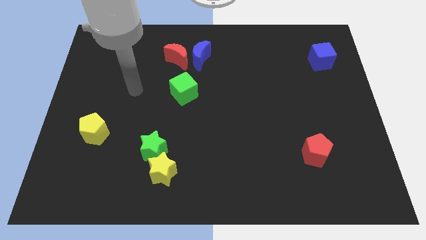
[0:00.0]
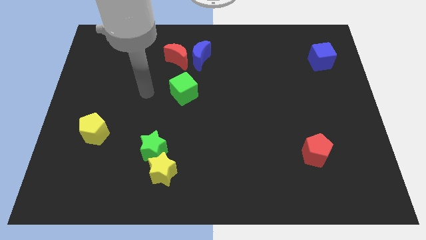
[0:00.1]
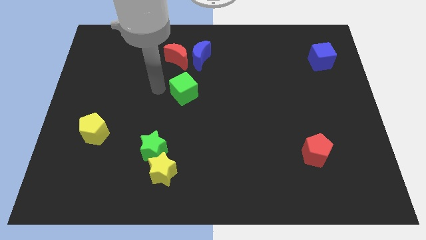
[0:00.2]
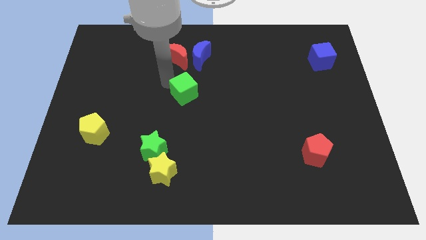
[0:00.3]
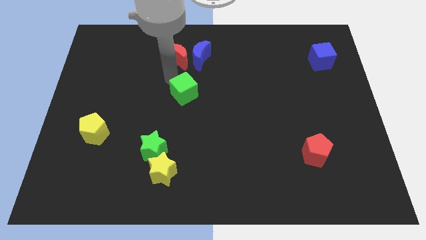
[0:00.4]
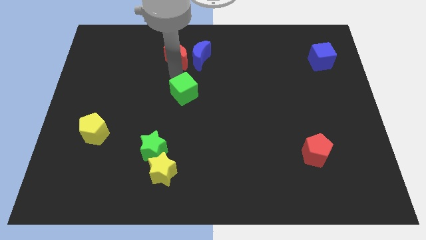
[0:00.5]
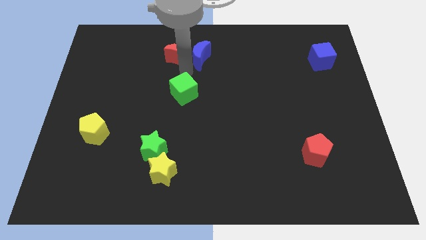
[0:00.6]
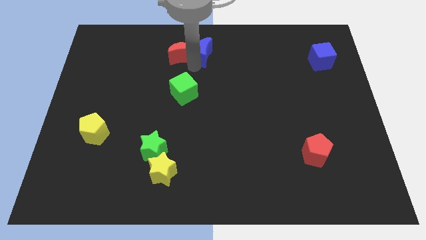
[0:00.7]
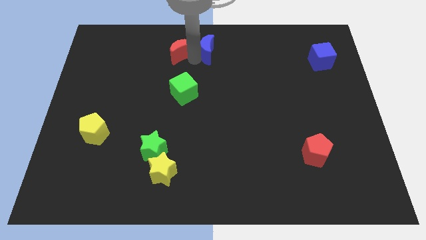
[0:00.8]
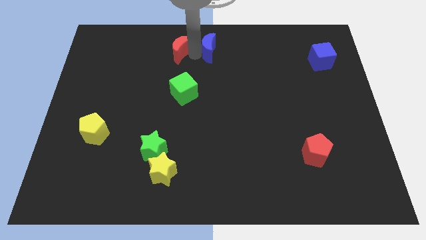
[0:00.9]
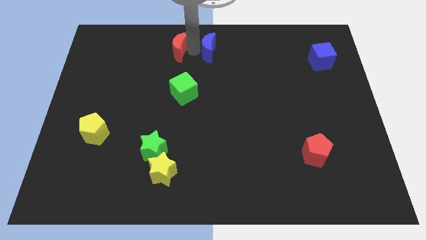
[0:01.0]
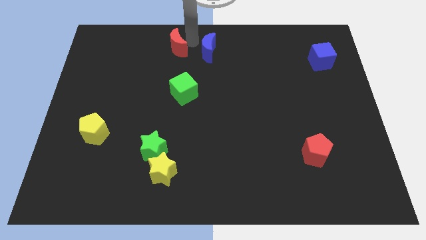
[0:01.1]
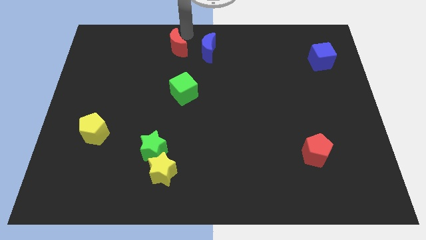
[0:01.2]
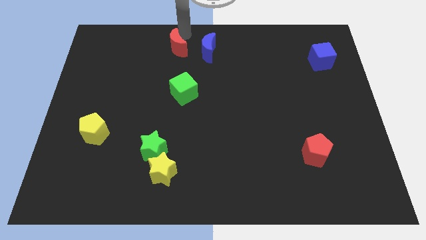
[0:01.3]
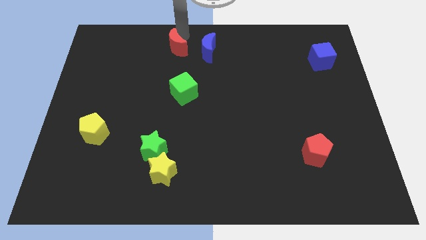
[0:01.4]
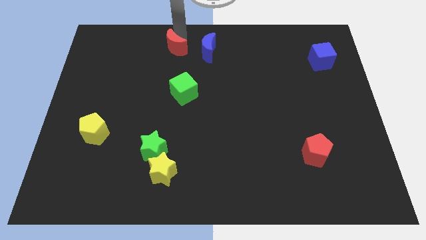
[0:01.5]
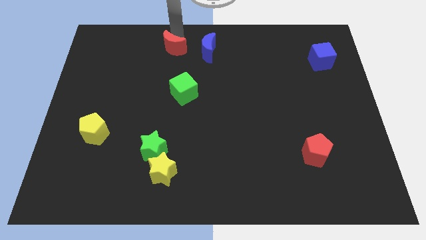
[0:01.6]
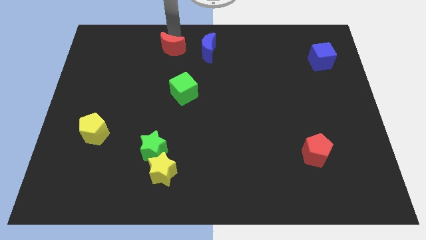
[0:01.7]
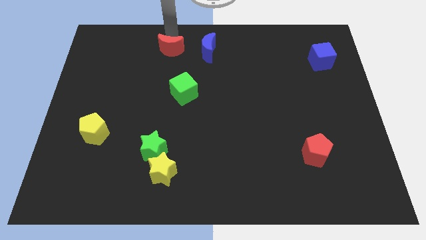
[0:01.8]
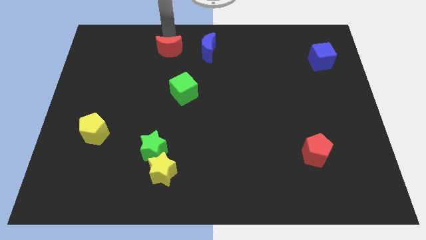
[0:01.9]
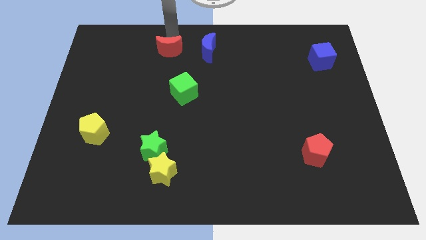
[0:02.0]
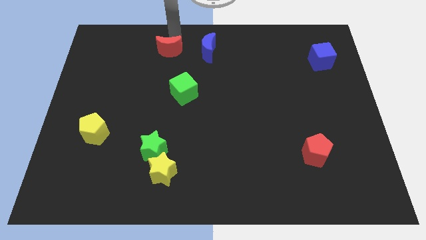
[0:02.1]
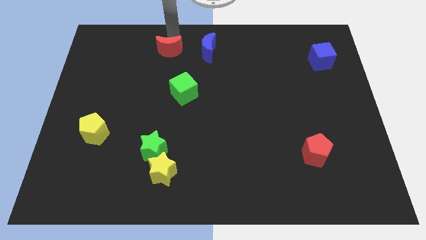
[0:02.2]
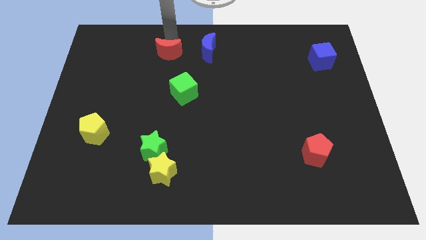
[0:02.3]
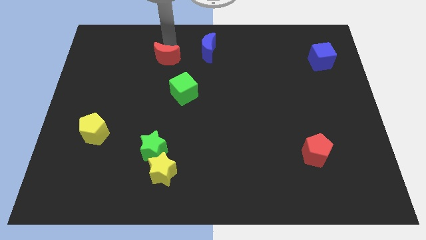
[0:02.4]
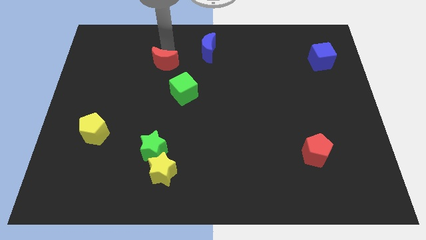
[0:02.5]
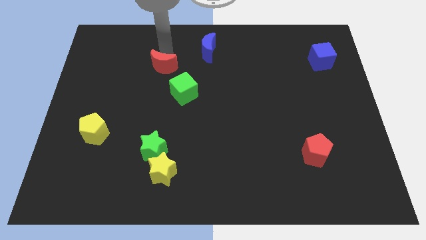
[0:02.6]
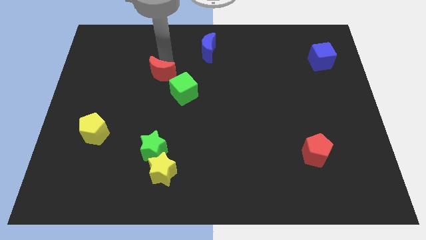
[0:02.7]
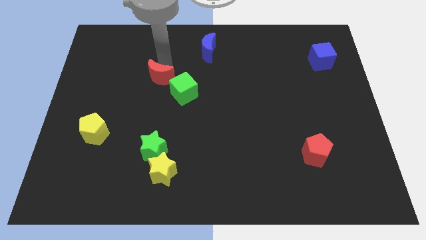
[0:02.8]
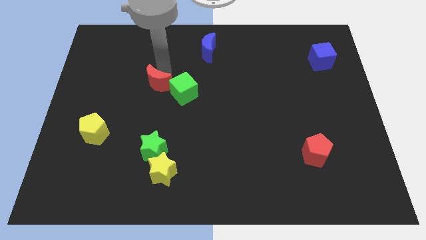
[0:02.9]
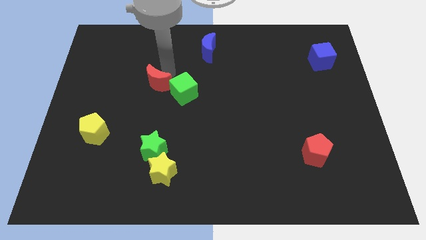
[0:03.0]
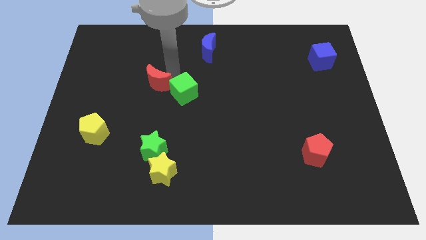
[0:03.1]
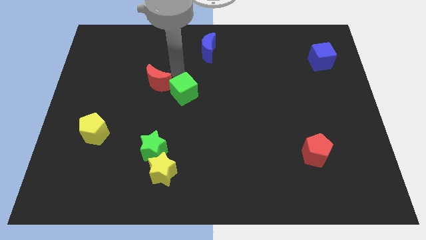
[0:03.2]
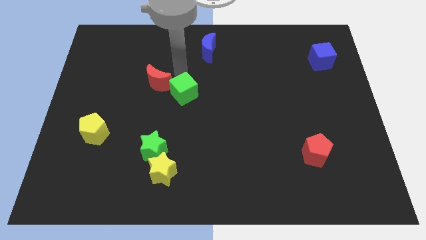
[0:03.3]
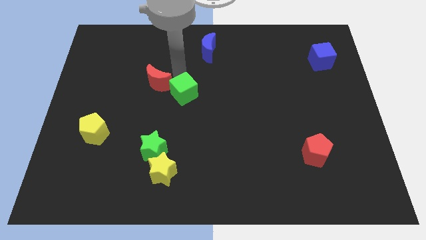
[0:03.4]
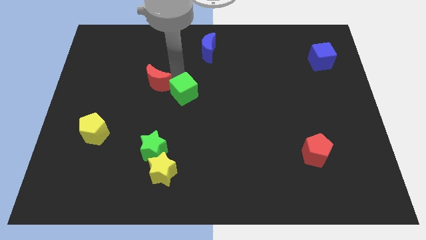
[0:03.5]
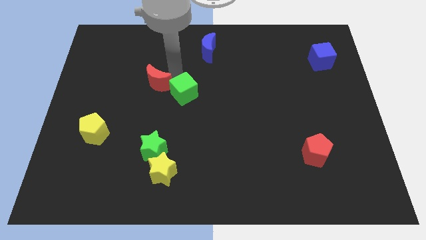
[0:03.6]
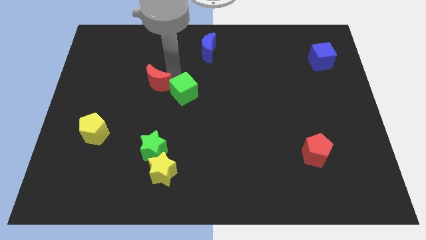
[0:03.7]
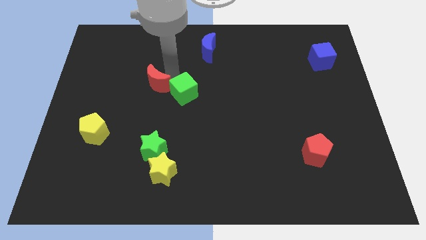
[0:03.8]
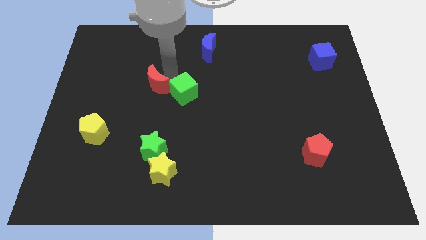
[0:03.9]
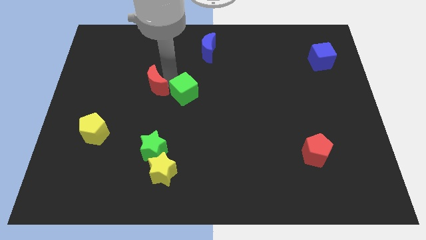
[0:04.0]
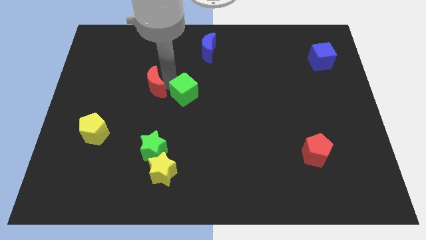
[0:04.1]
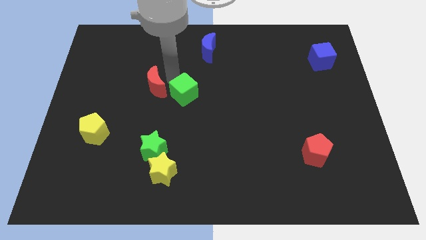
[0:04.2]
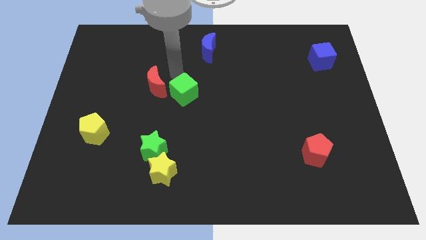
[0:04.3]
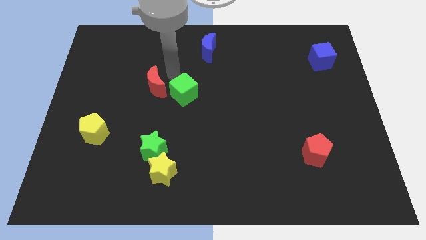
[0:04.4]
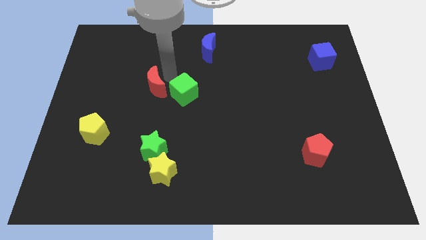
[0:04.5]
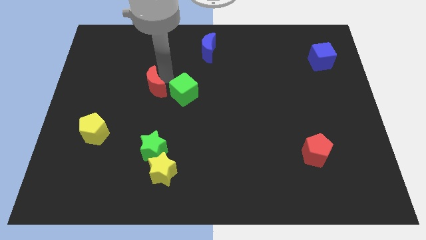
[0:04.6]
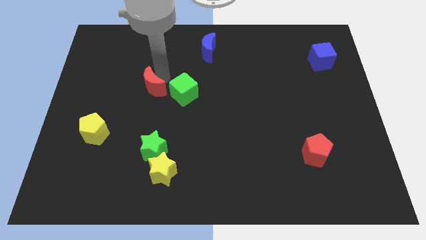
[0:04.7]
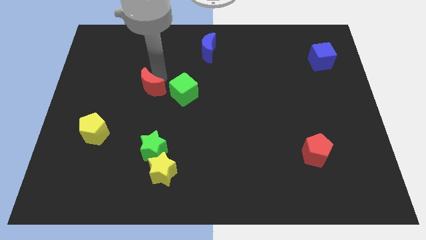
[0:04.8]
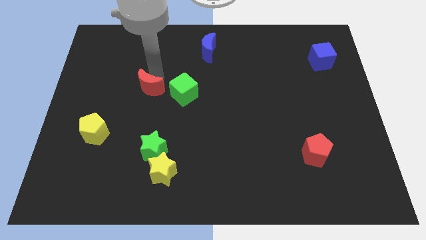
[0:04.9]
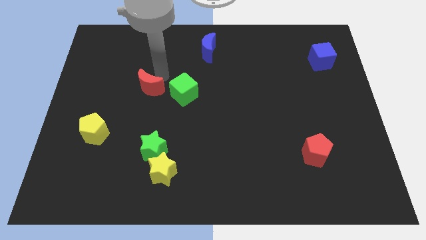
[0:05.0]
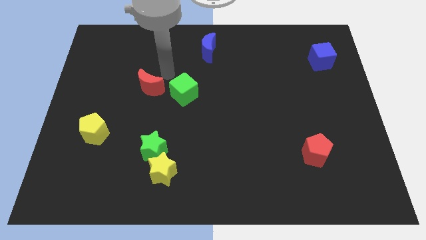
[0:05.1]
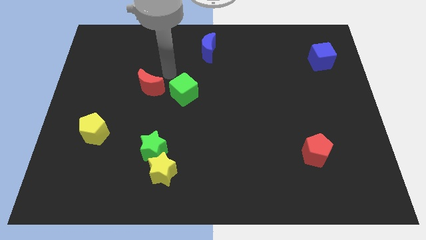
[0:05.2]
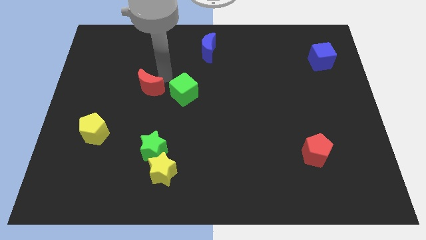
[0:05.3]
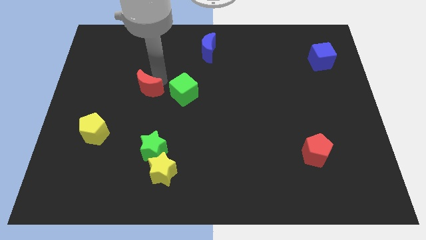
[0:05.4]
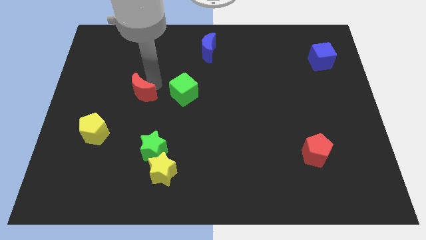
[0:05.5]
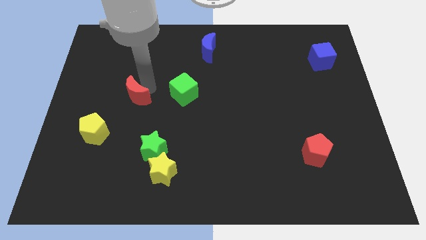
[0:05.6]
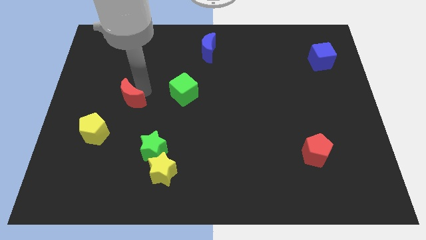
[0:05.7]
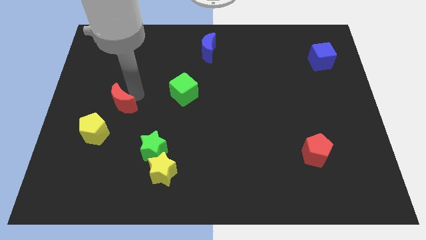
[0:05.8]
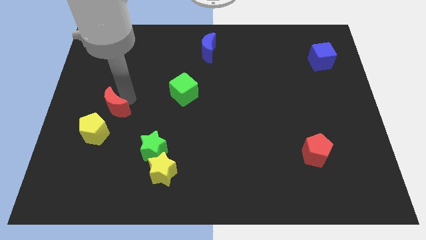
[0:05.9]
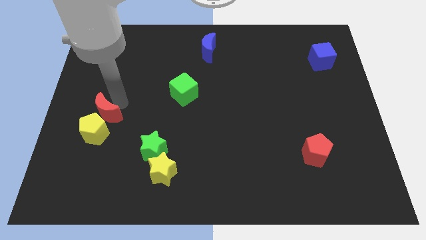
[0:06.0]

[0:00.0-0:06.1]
put the red moon to the yellow pentagon

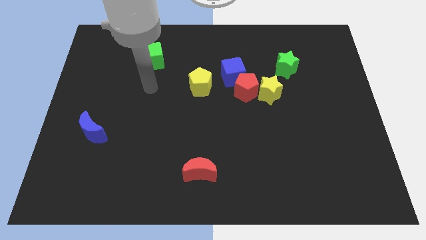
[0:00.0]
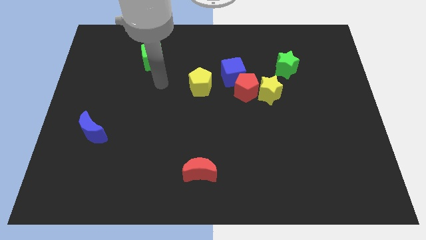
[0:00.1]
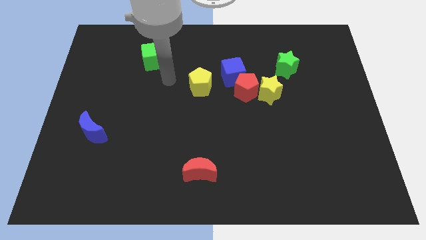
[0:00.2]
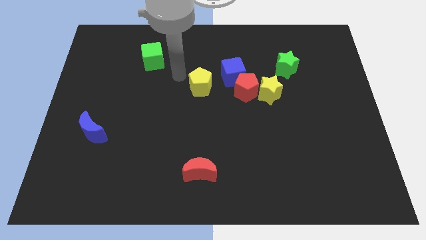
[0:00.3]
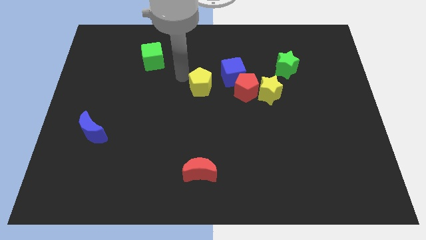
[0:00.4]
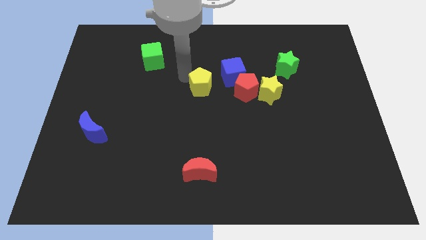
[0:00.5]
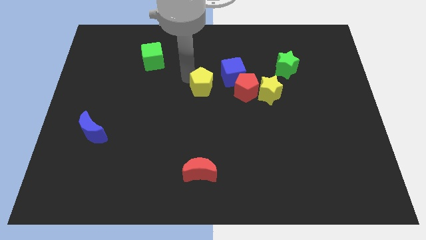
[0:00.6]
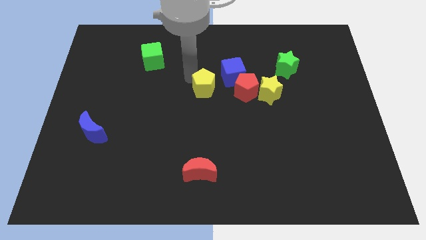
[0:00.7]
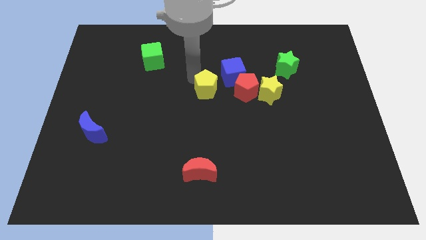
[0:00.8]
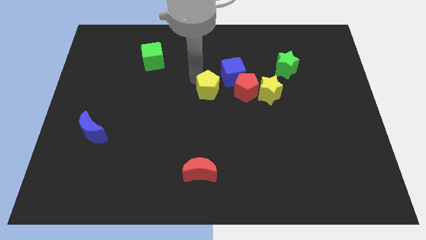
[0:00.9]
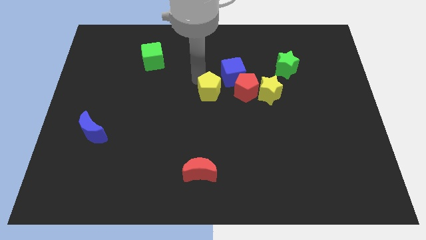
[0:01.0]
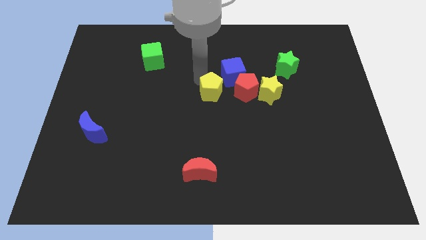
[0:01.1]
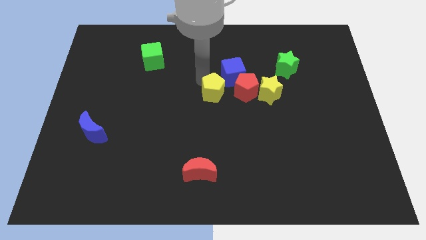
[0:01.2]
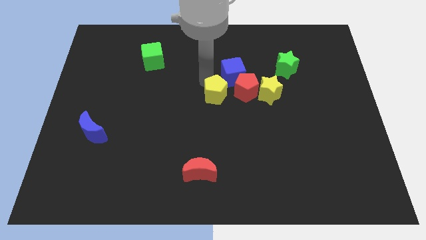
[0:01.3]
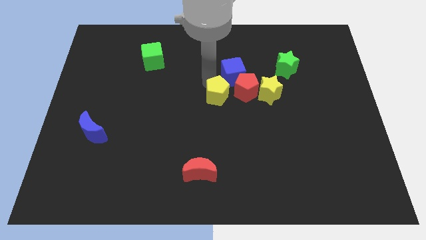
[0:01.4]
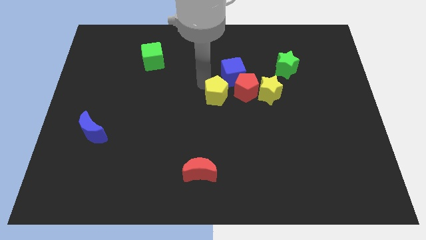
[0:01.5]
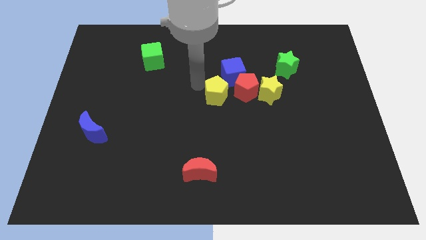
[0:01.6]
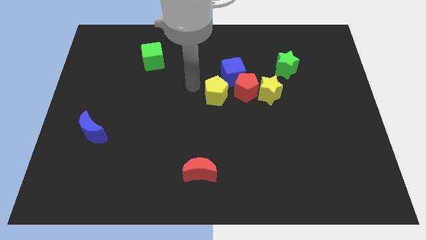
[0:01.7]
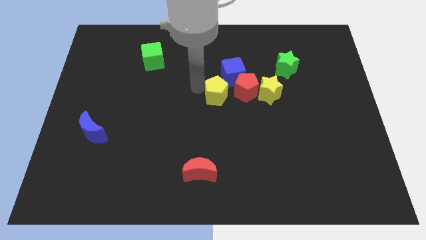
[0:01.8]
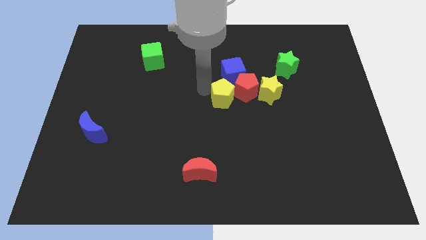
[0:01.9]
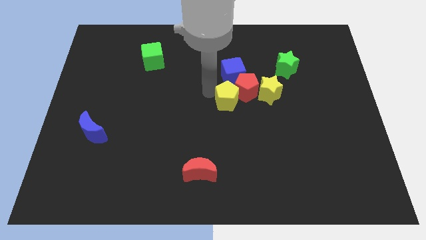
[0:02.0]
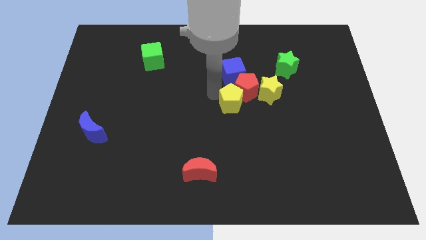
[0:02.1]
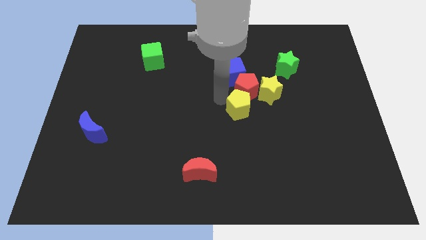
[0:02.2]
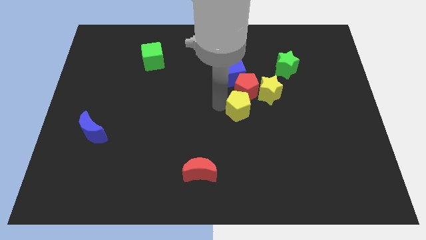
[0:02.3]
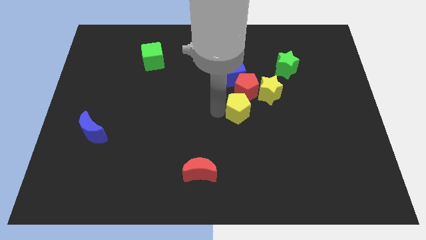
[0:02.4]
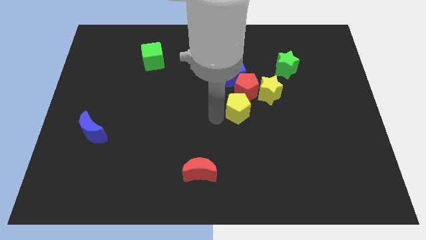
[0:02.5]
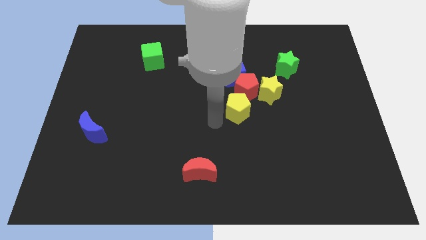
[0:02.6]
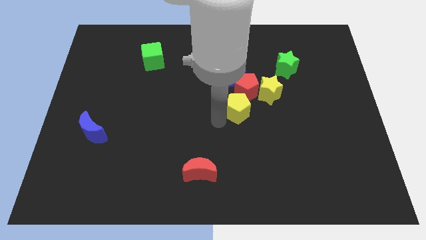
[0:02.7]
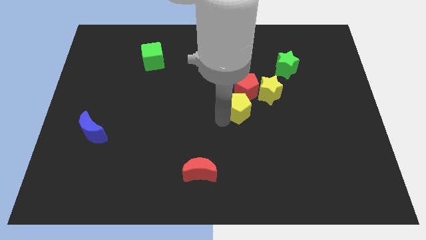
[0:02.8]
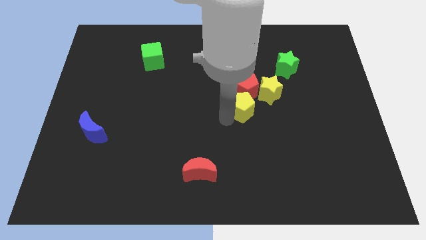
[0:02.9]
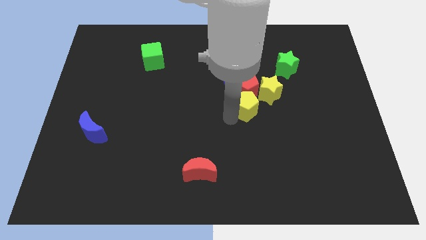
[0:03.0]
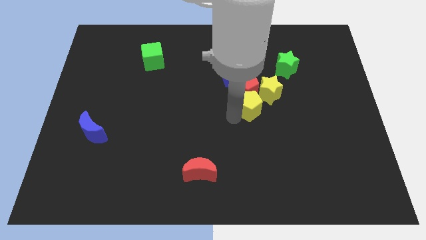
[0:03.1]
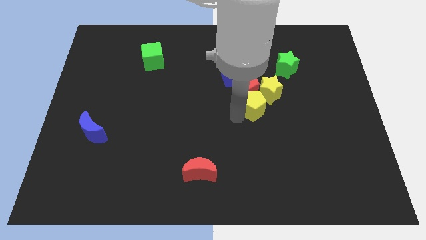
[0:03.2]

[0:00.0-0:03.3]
put the yellow pentagon to the yellow star
